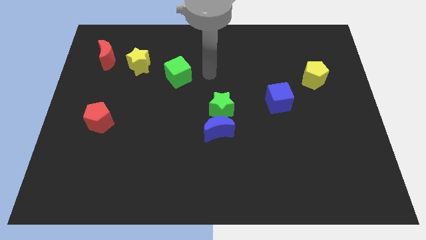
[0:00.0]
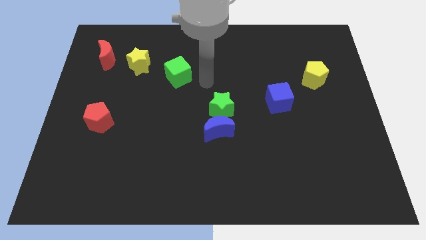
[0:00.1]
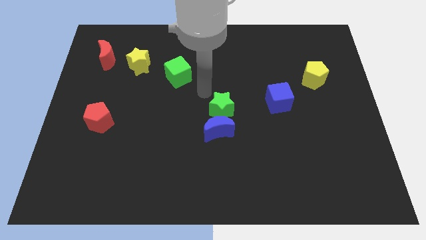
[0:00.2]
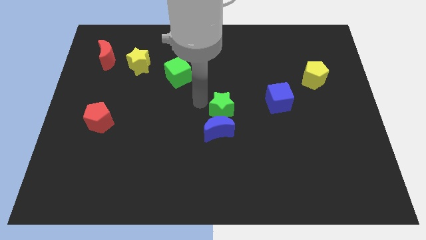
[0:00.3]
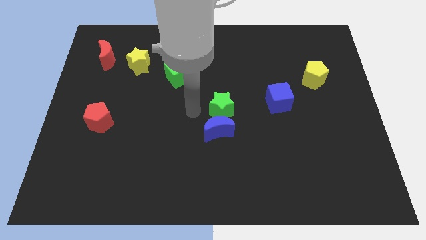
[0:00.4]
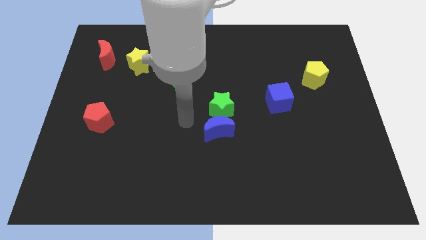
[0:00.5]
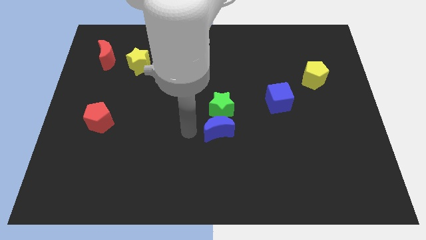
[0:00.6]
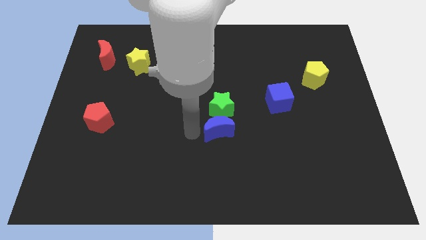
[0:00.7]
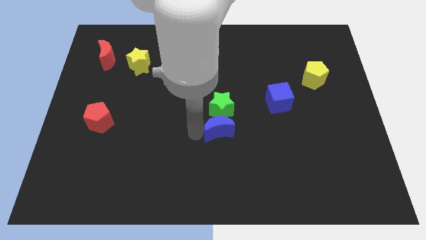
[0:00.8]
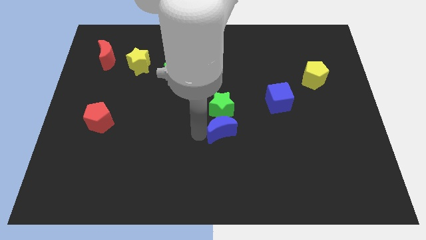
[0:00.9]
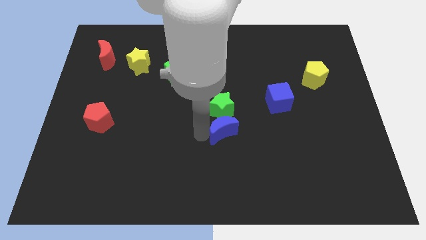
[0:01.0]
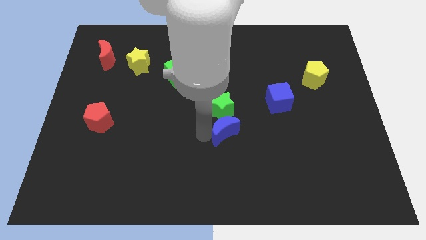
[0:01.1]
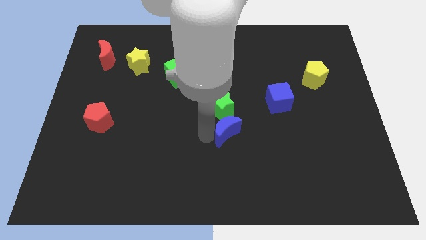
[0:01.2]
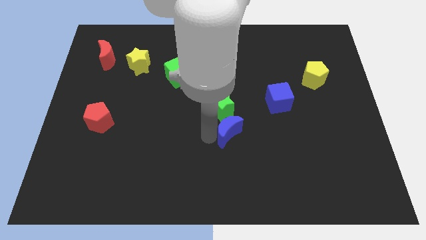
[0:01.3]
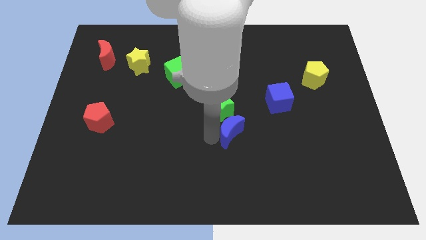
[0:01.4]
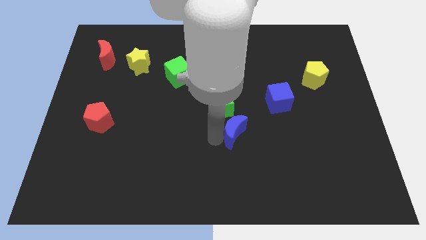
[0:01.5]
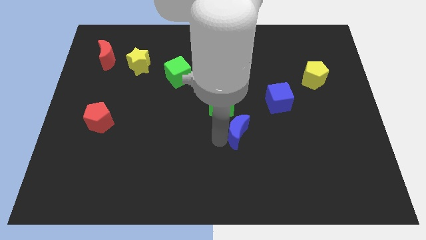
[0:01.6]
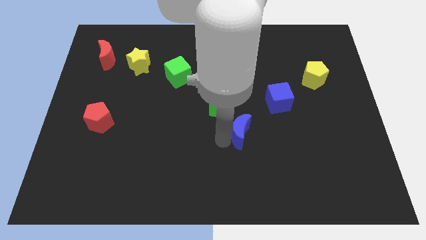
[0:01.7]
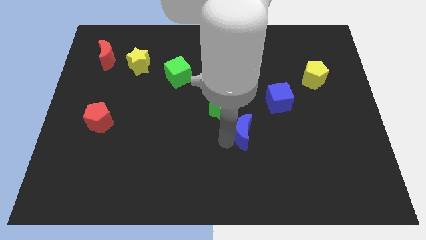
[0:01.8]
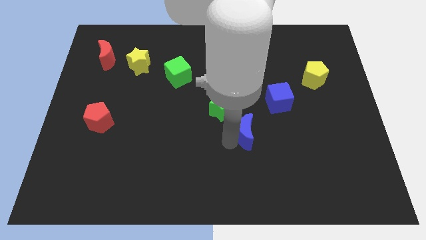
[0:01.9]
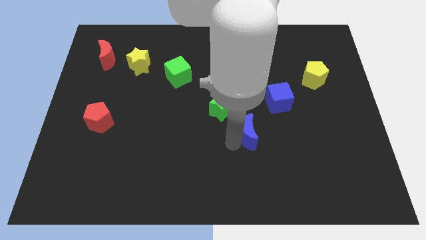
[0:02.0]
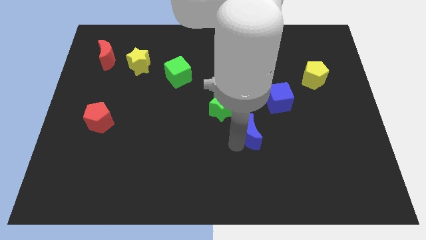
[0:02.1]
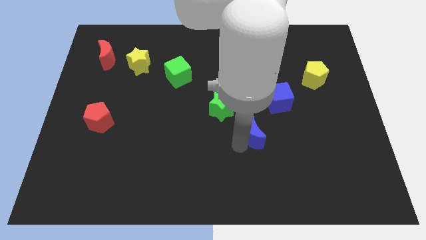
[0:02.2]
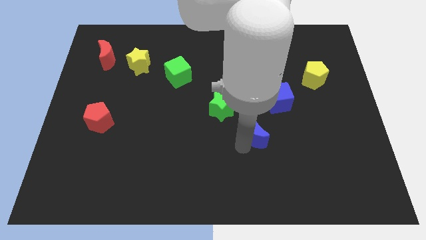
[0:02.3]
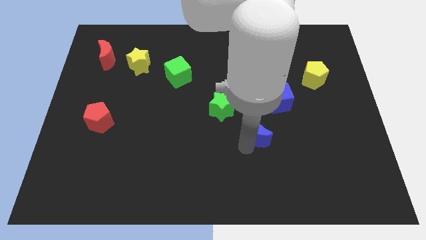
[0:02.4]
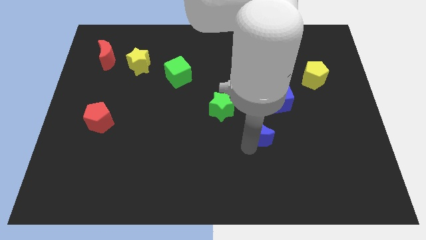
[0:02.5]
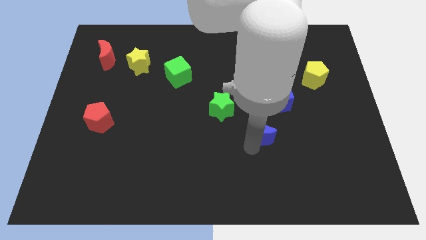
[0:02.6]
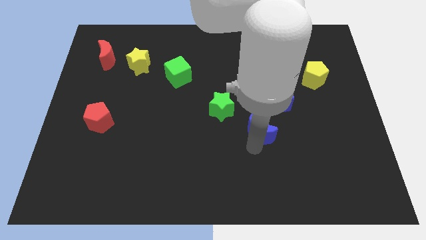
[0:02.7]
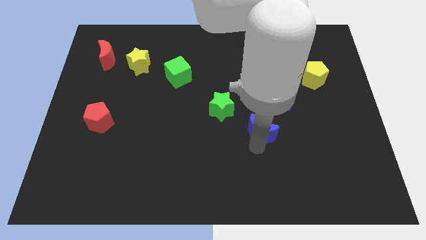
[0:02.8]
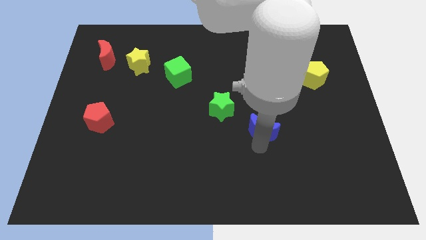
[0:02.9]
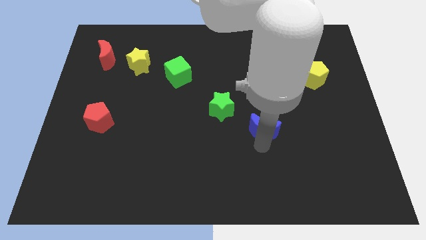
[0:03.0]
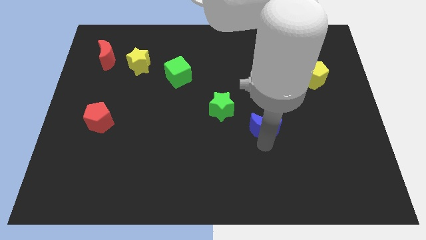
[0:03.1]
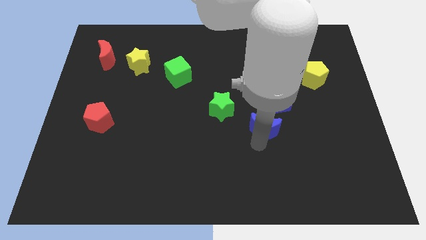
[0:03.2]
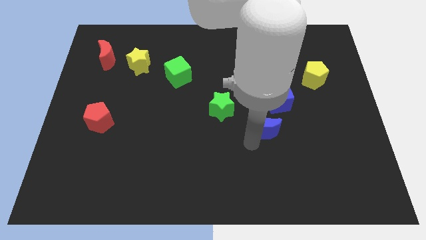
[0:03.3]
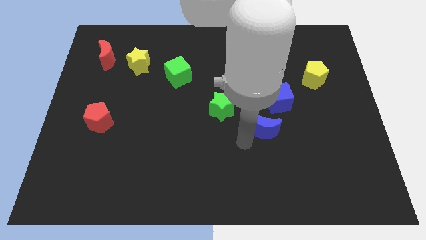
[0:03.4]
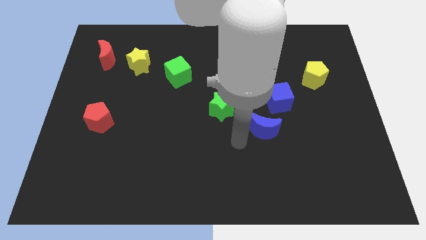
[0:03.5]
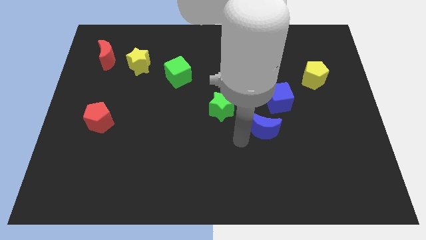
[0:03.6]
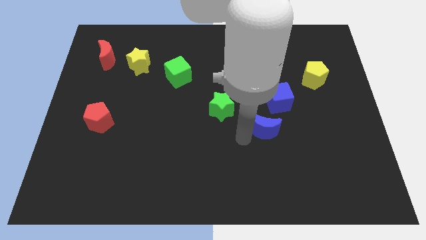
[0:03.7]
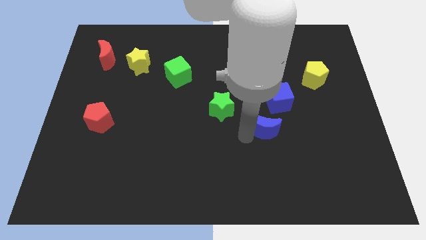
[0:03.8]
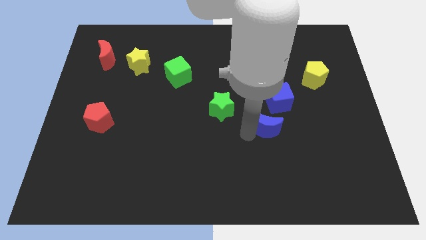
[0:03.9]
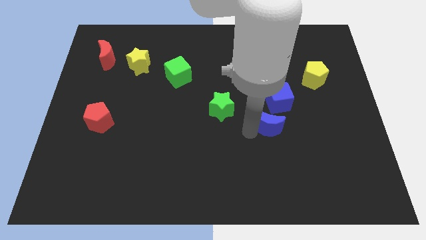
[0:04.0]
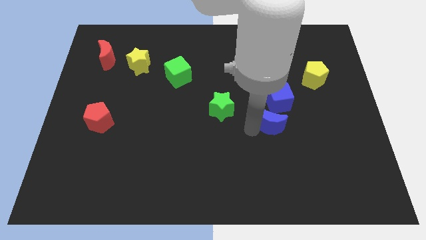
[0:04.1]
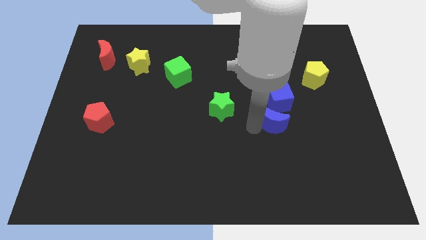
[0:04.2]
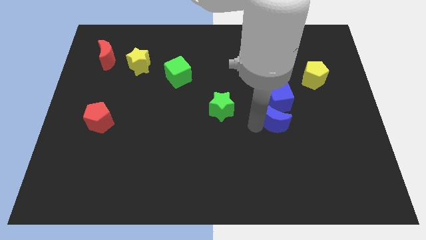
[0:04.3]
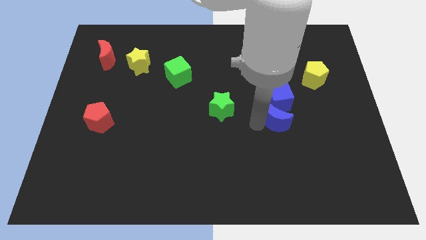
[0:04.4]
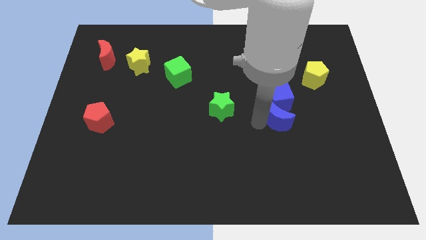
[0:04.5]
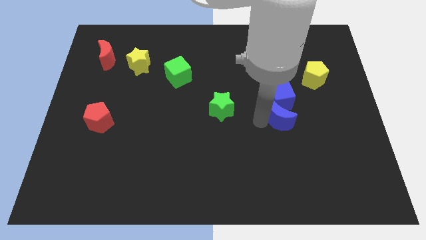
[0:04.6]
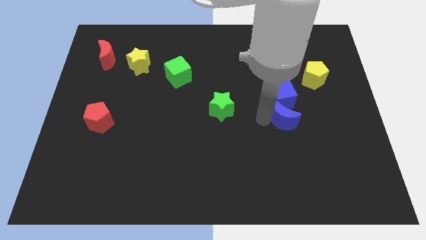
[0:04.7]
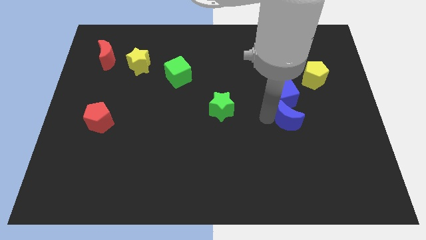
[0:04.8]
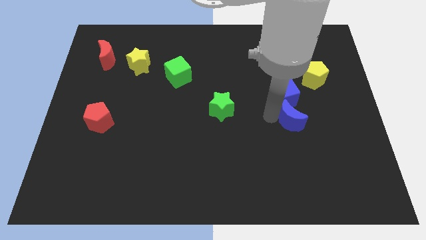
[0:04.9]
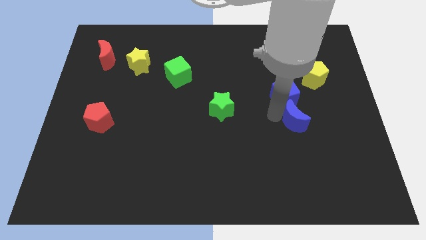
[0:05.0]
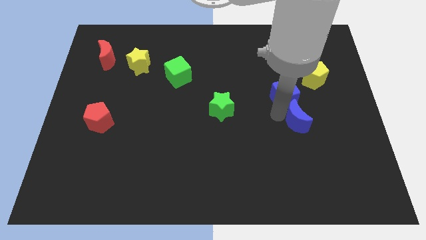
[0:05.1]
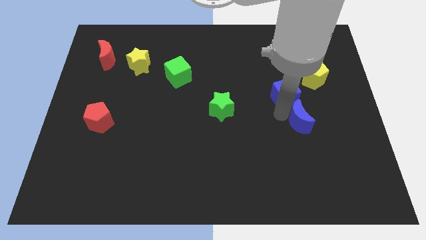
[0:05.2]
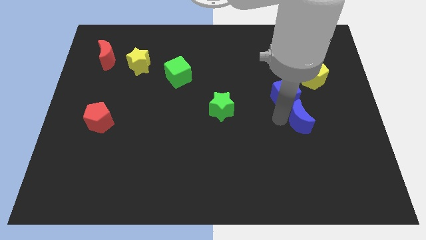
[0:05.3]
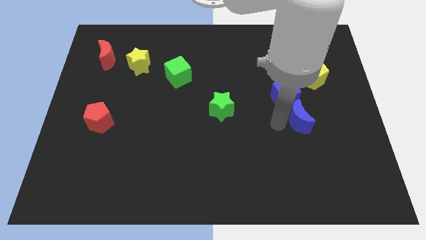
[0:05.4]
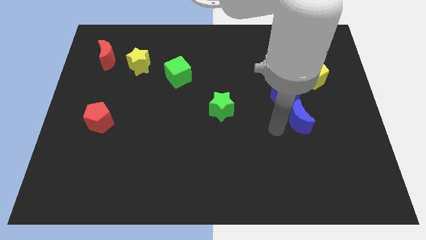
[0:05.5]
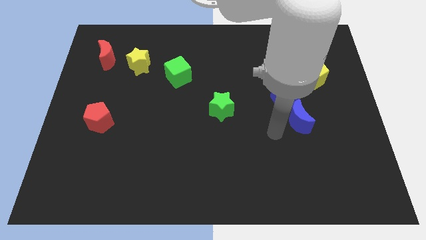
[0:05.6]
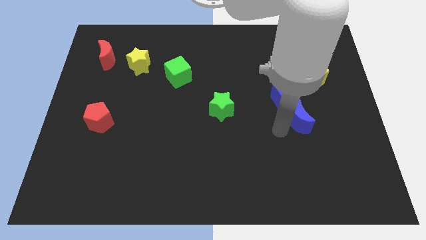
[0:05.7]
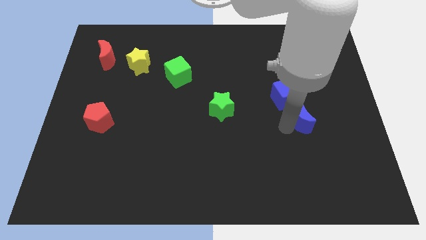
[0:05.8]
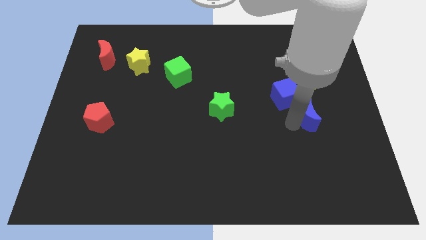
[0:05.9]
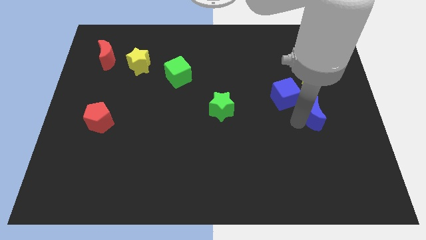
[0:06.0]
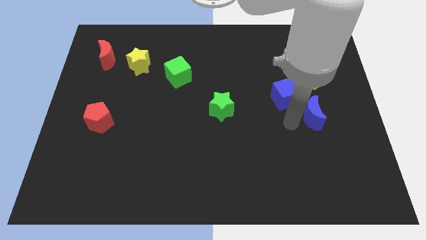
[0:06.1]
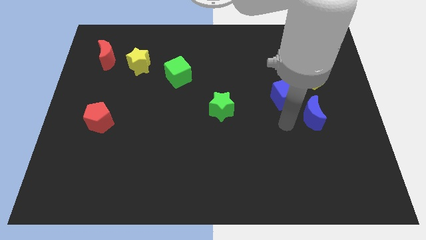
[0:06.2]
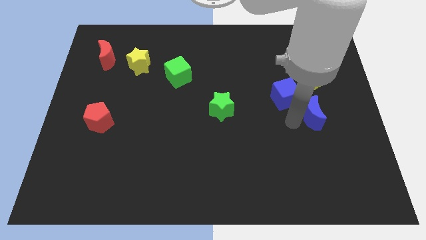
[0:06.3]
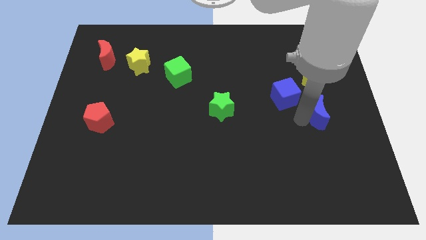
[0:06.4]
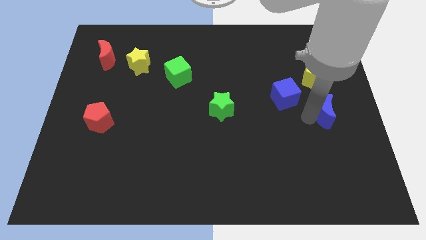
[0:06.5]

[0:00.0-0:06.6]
slide the blue moon to the right side of the board

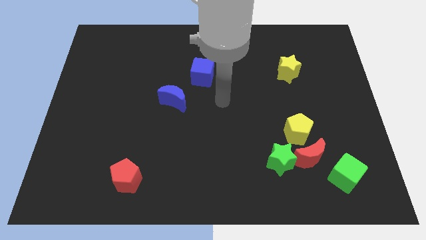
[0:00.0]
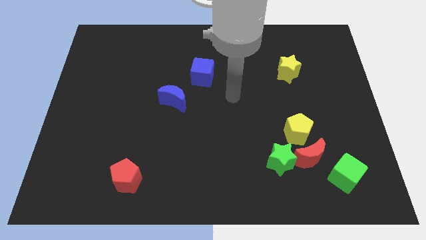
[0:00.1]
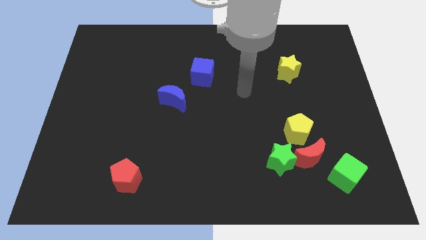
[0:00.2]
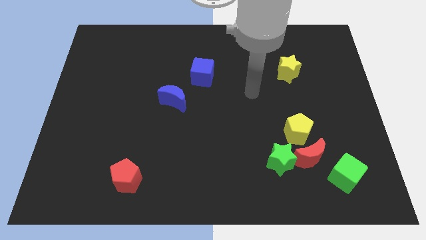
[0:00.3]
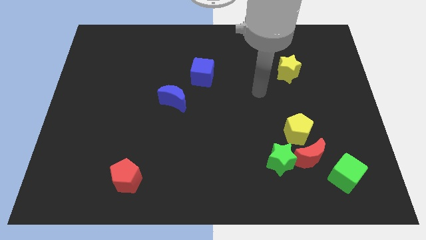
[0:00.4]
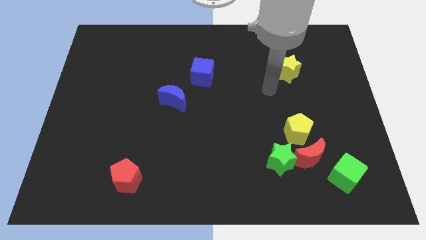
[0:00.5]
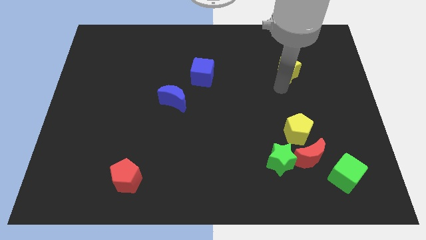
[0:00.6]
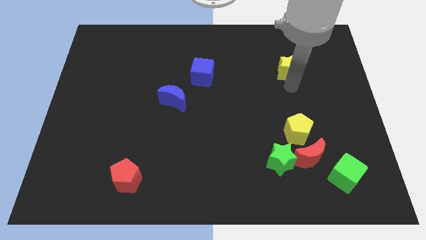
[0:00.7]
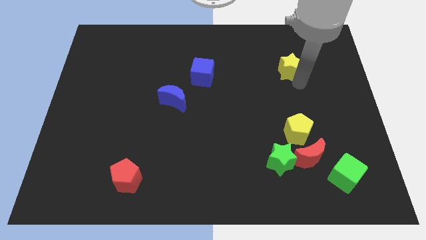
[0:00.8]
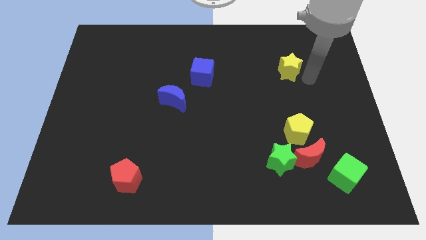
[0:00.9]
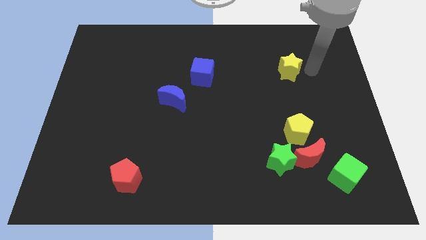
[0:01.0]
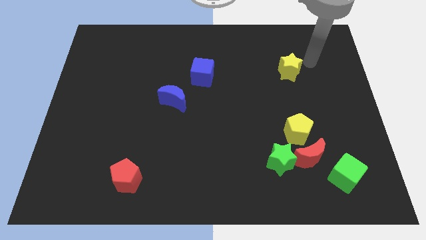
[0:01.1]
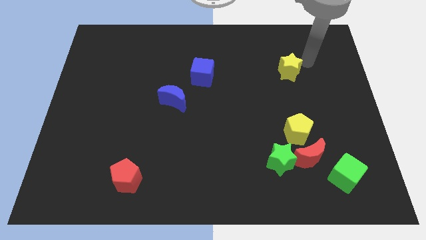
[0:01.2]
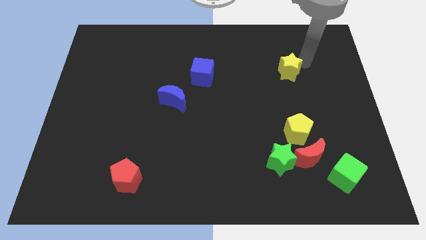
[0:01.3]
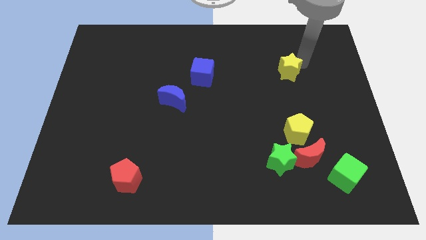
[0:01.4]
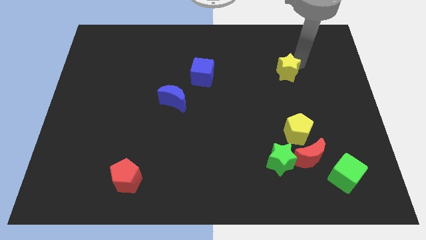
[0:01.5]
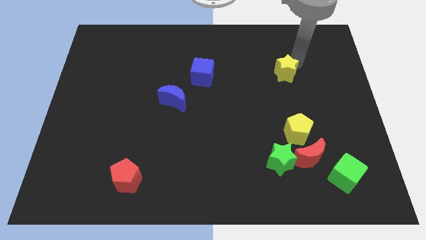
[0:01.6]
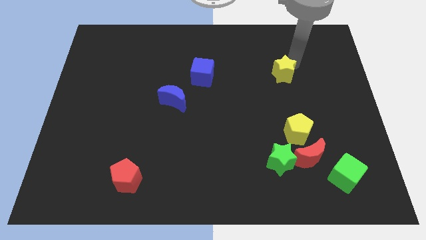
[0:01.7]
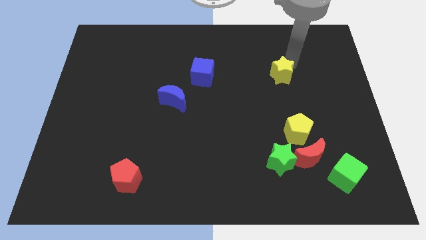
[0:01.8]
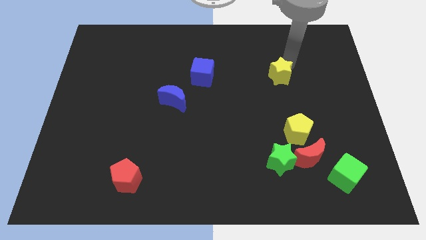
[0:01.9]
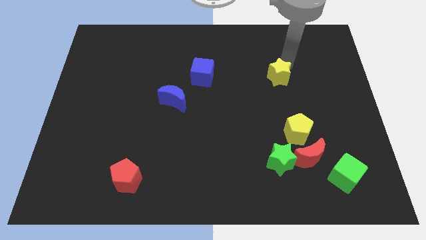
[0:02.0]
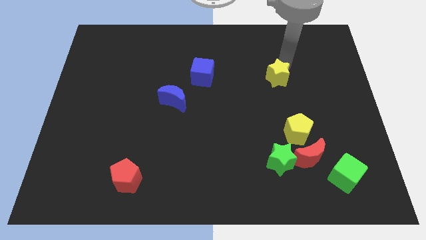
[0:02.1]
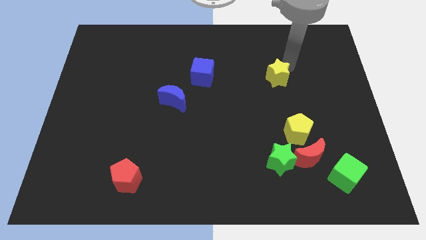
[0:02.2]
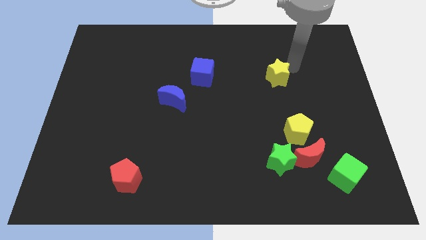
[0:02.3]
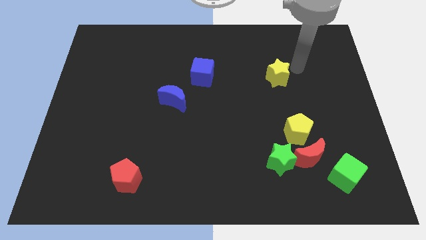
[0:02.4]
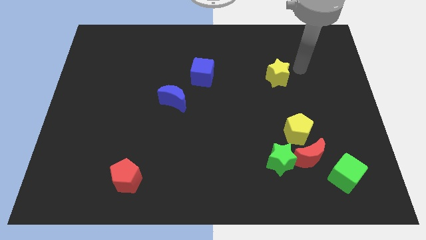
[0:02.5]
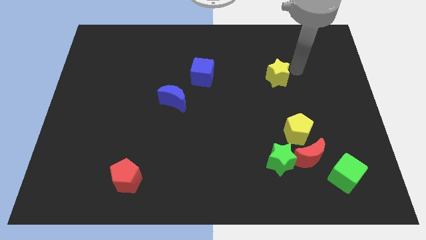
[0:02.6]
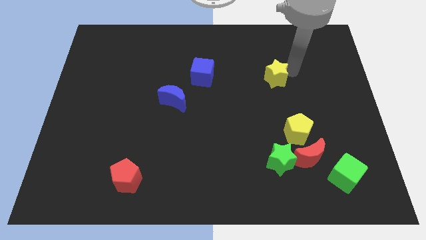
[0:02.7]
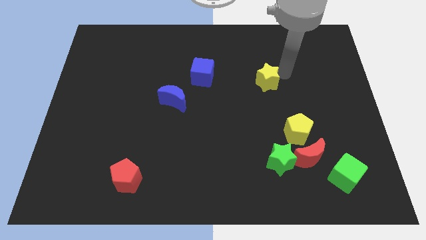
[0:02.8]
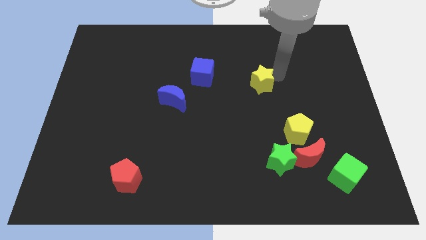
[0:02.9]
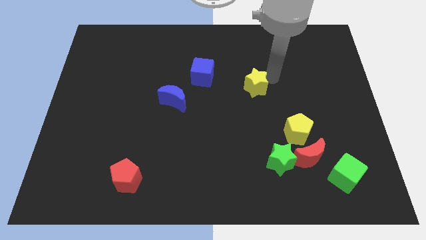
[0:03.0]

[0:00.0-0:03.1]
move the yellow star to the middle of the board
